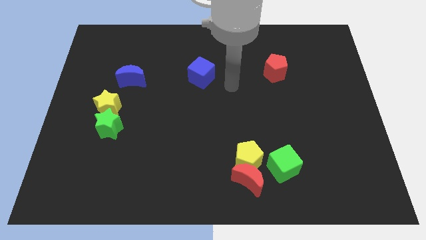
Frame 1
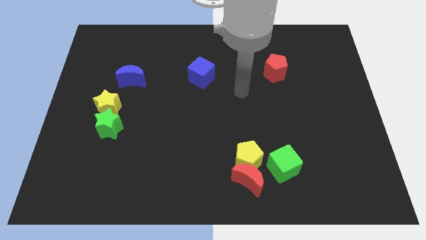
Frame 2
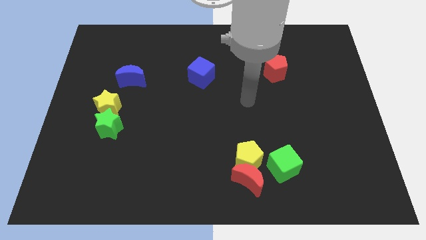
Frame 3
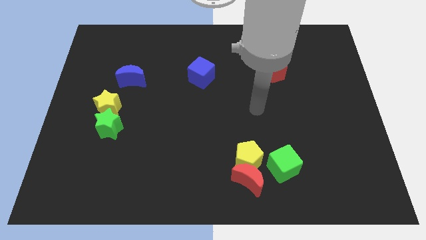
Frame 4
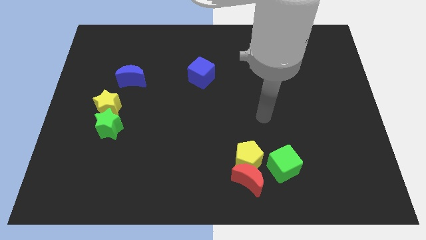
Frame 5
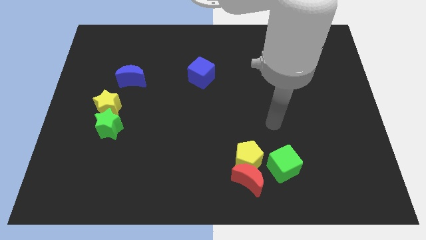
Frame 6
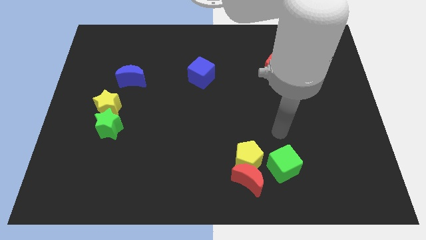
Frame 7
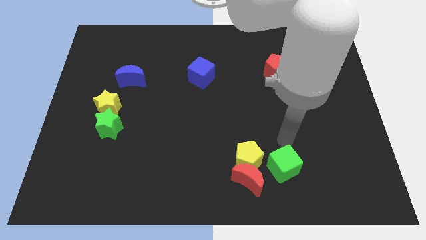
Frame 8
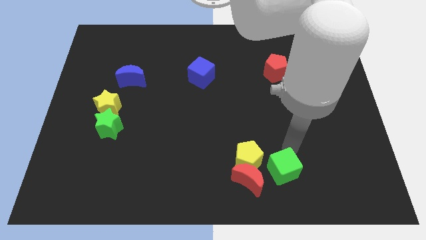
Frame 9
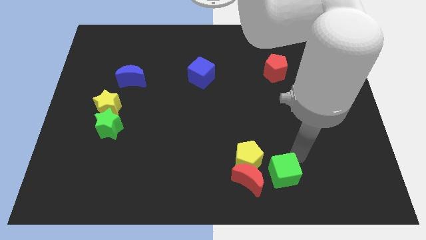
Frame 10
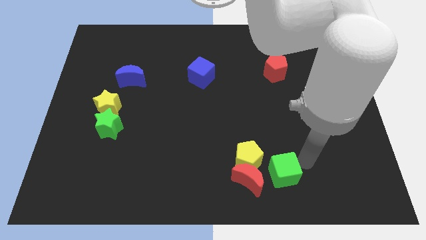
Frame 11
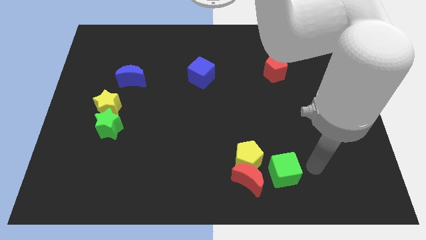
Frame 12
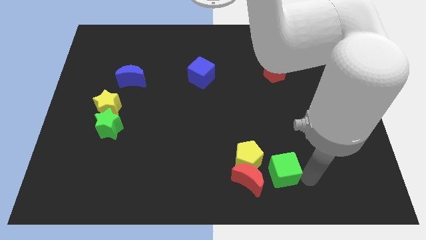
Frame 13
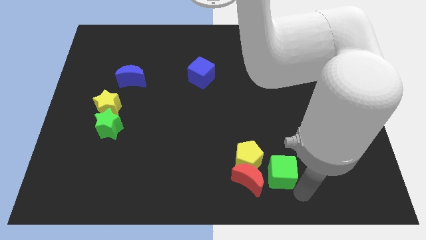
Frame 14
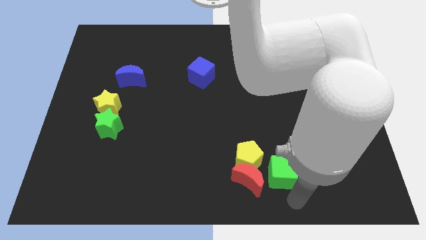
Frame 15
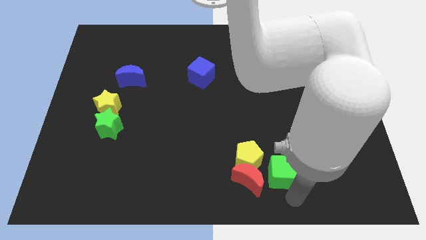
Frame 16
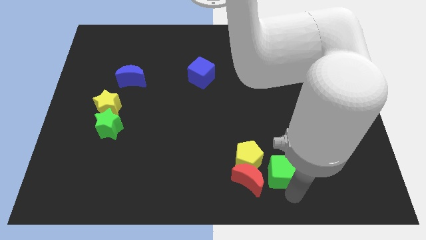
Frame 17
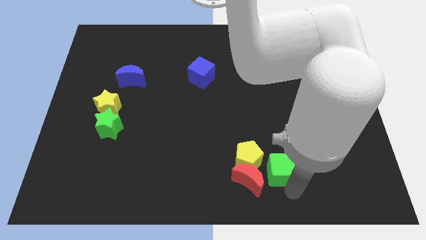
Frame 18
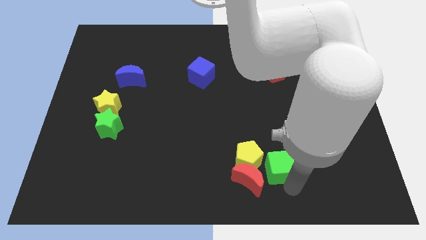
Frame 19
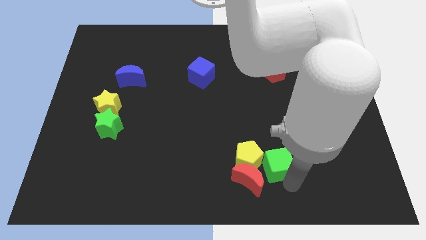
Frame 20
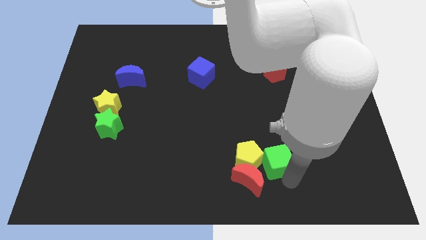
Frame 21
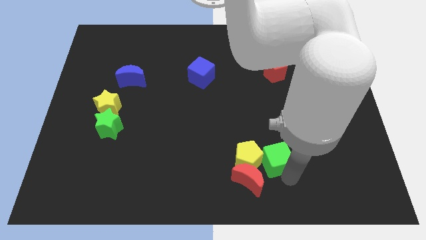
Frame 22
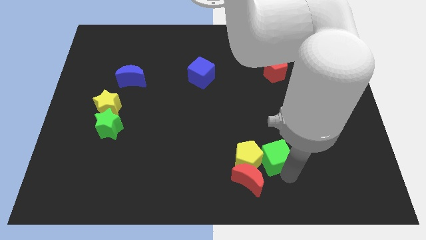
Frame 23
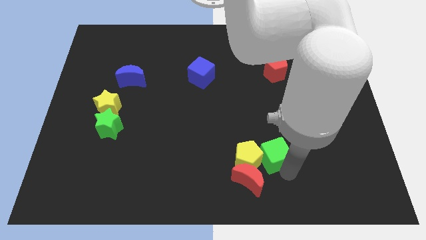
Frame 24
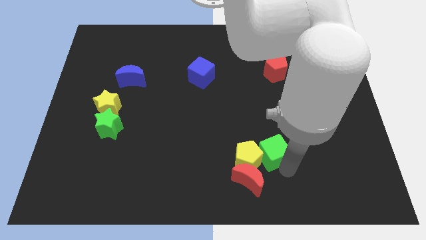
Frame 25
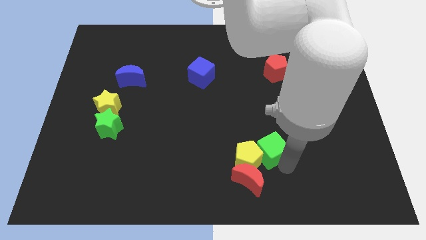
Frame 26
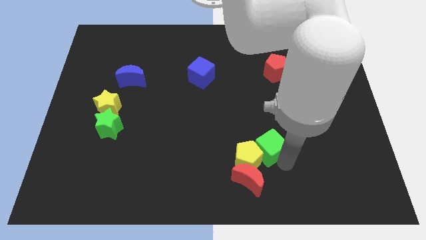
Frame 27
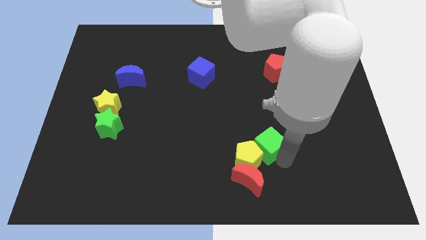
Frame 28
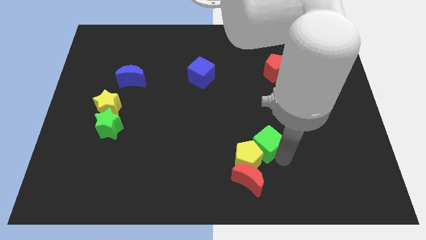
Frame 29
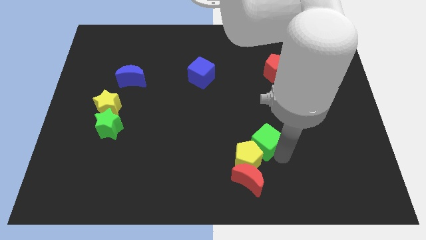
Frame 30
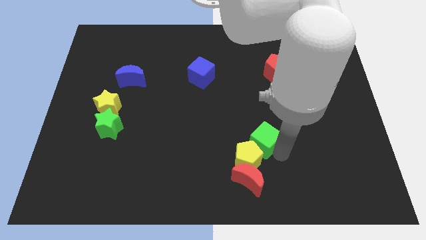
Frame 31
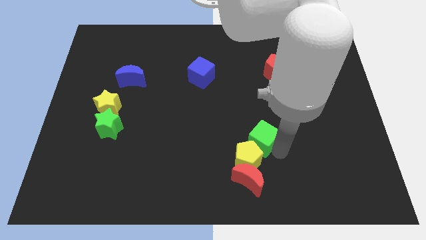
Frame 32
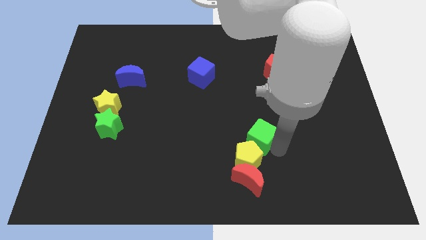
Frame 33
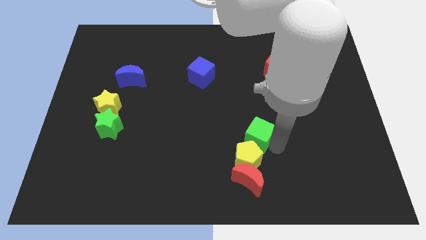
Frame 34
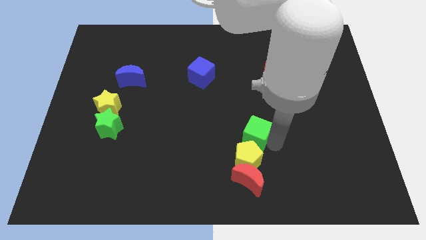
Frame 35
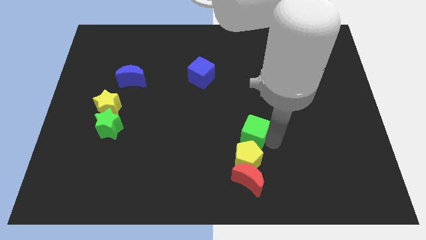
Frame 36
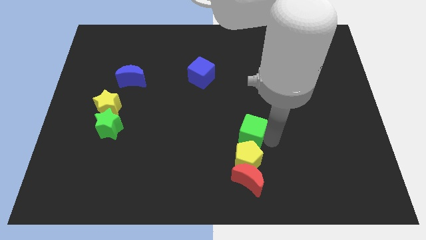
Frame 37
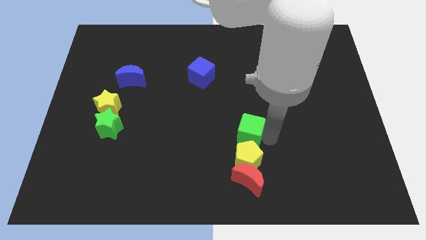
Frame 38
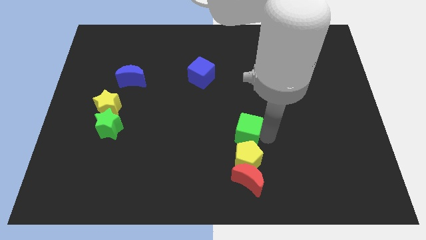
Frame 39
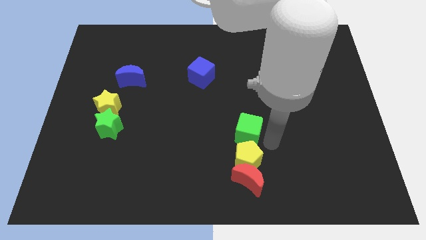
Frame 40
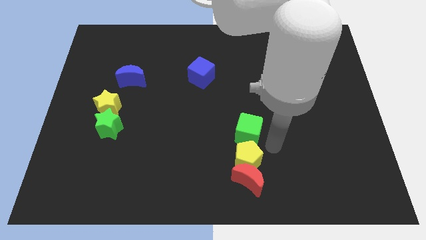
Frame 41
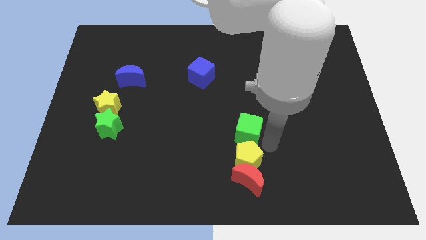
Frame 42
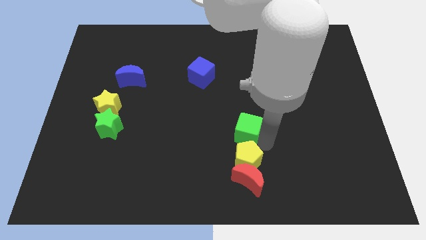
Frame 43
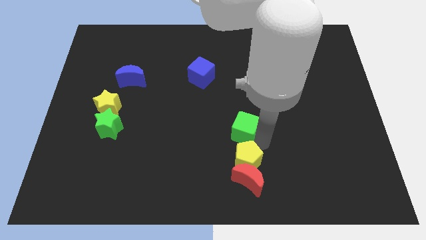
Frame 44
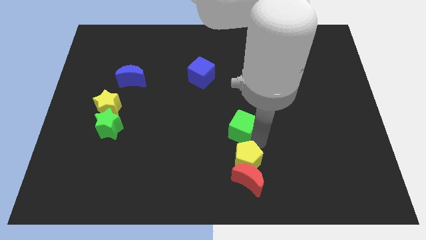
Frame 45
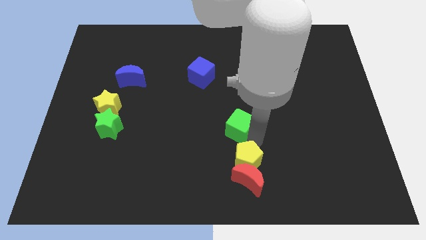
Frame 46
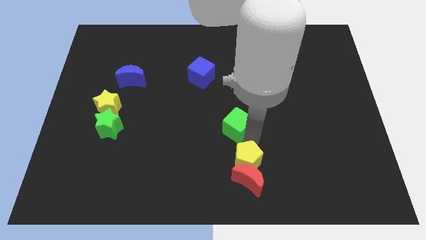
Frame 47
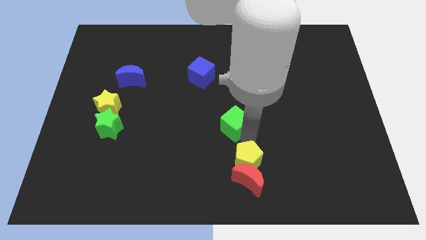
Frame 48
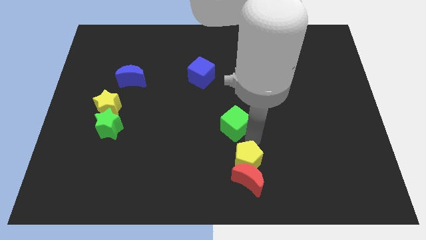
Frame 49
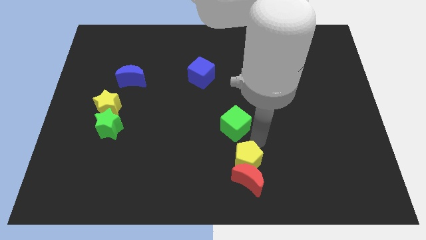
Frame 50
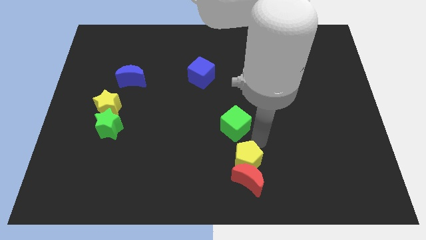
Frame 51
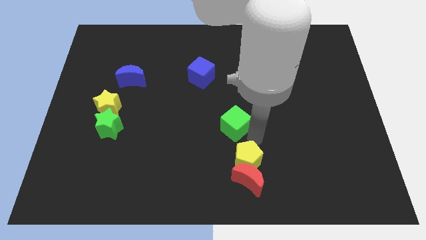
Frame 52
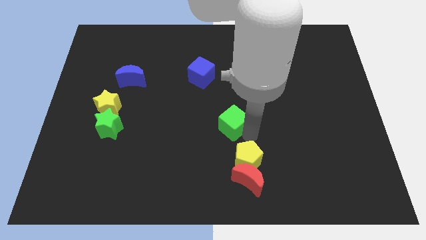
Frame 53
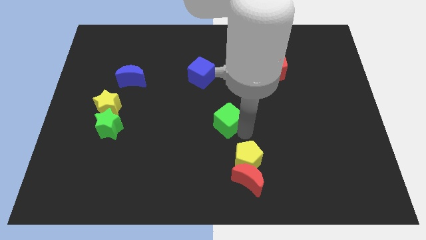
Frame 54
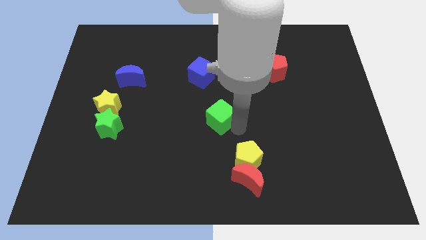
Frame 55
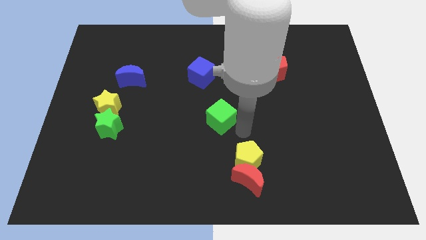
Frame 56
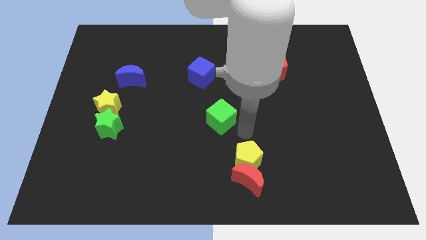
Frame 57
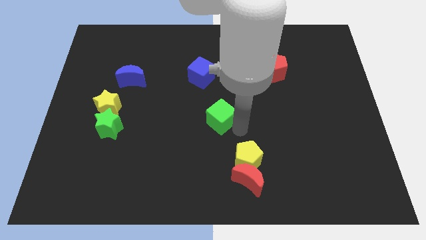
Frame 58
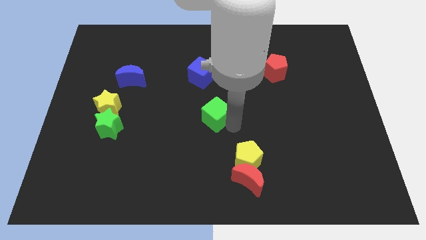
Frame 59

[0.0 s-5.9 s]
put the green cube to the bottom side of the blue cube

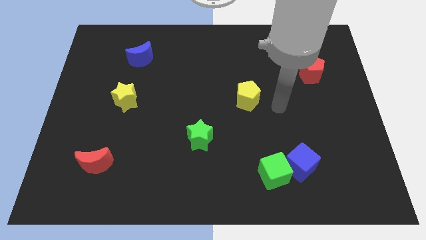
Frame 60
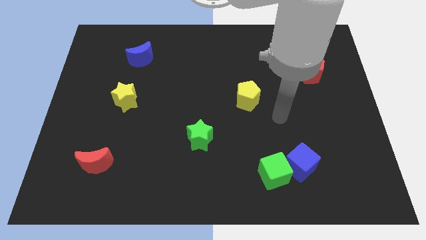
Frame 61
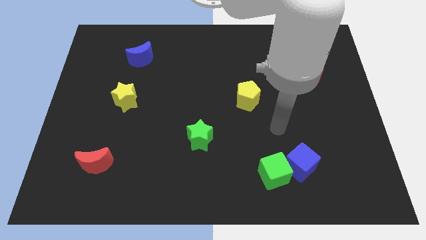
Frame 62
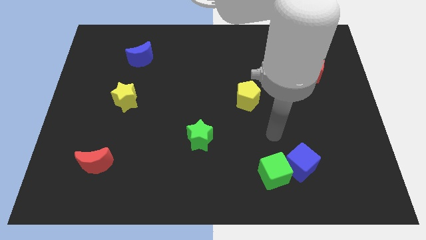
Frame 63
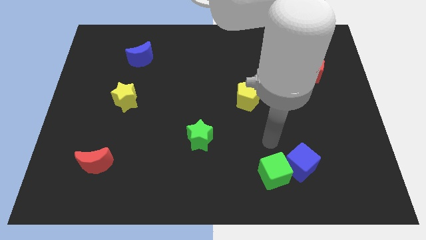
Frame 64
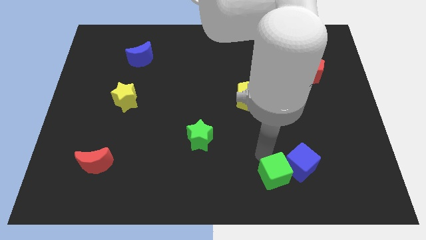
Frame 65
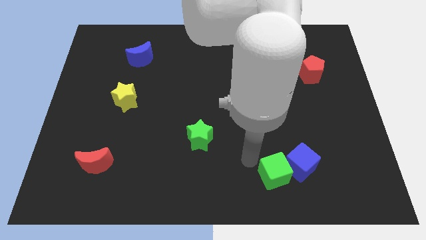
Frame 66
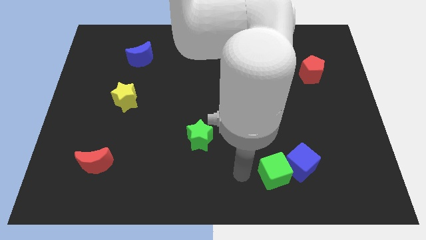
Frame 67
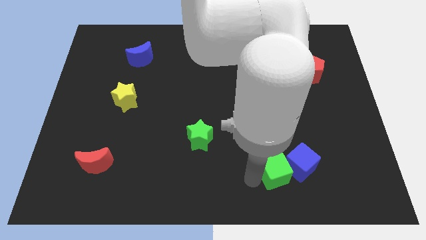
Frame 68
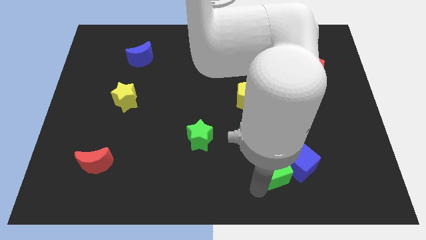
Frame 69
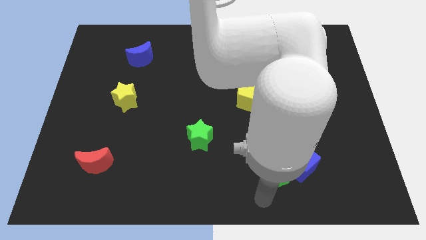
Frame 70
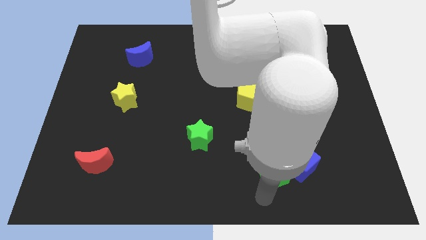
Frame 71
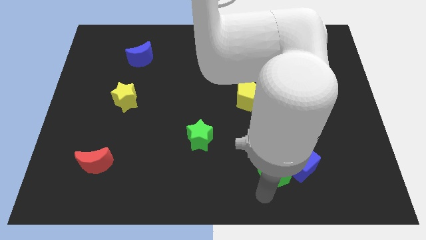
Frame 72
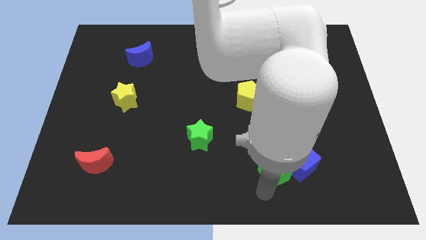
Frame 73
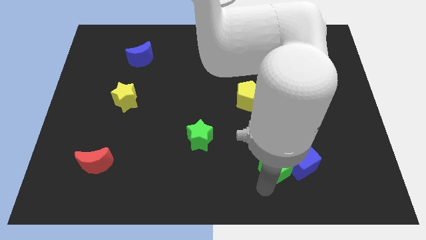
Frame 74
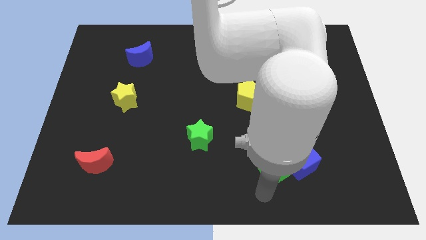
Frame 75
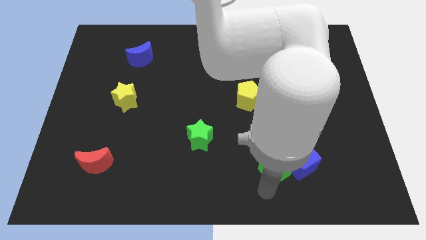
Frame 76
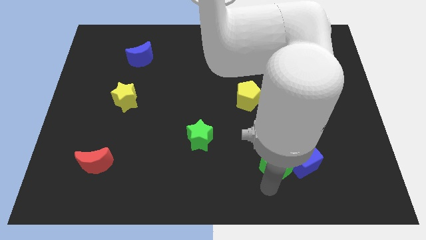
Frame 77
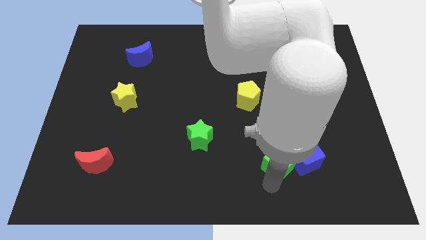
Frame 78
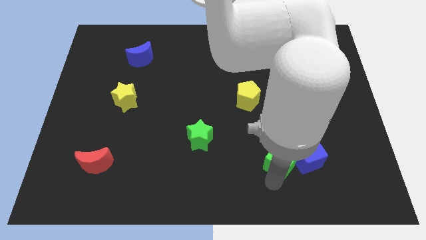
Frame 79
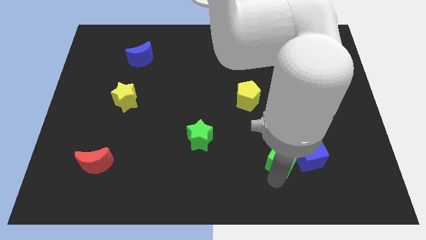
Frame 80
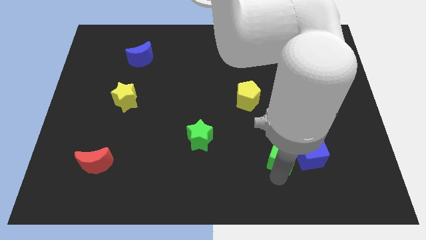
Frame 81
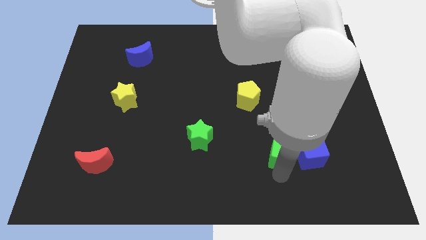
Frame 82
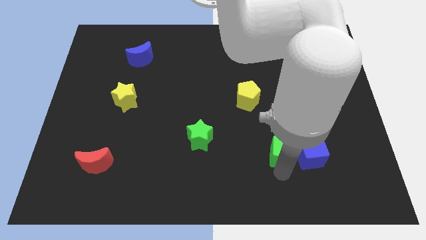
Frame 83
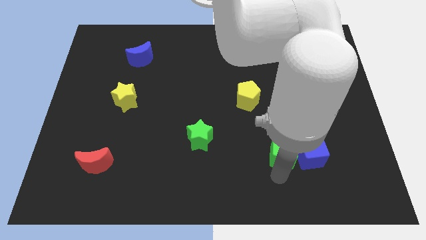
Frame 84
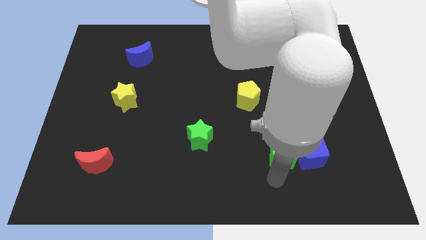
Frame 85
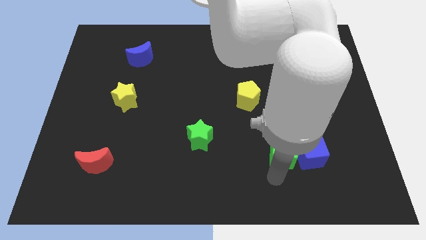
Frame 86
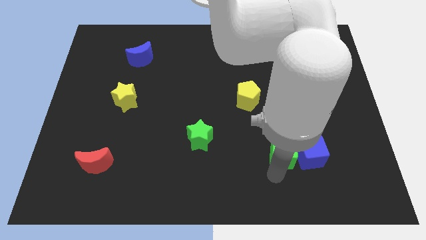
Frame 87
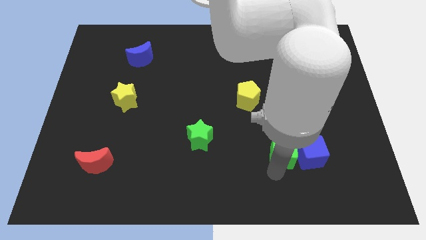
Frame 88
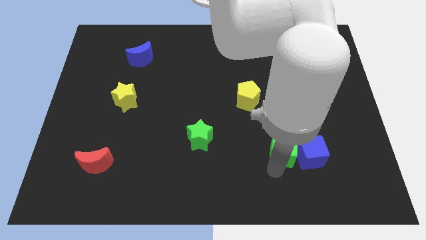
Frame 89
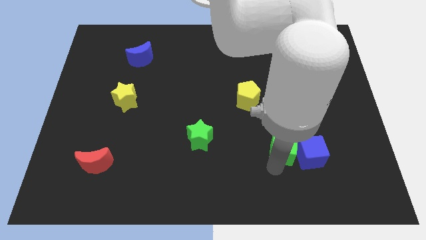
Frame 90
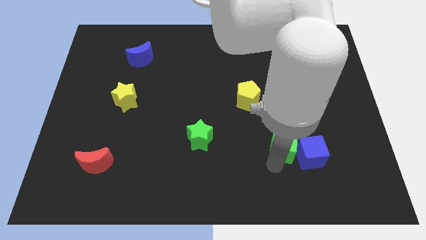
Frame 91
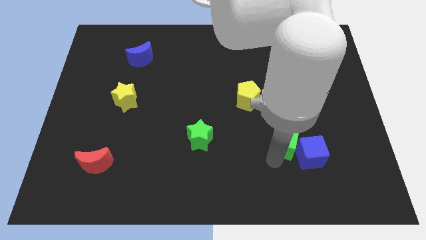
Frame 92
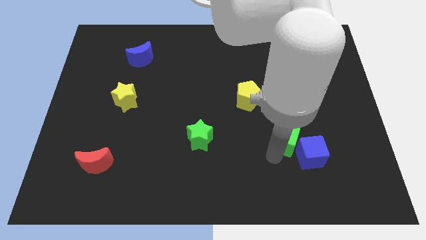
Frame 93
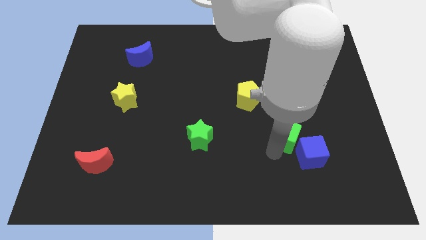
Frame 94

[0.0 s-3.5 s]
put the green cube to the top side of the blue cube
